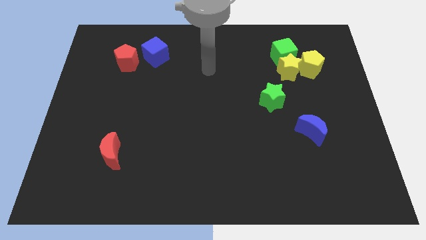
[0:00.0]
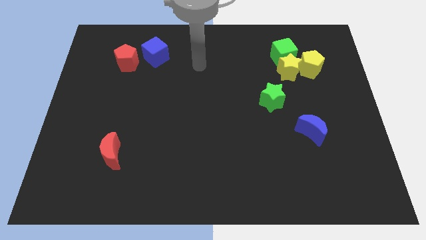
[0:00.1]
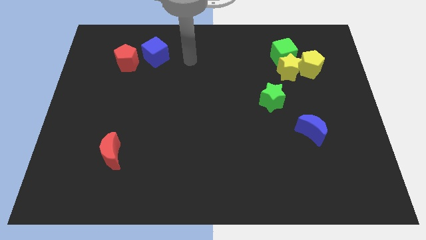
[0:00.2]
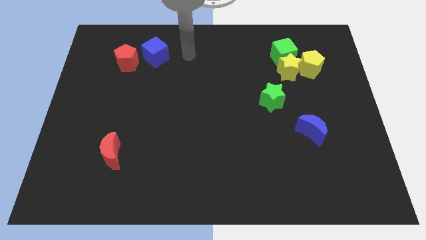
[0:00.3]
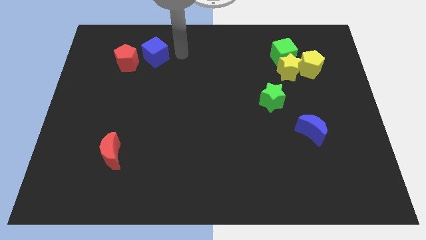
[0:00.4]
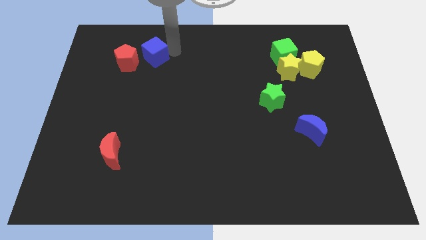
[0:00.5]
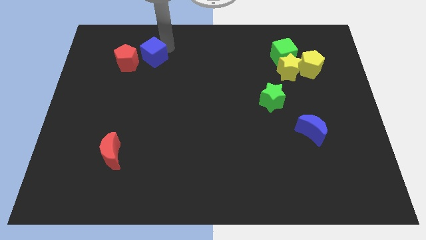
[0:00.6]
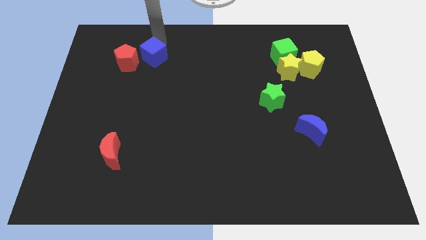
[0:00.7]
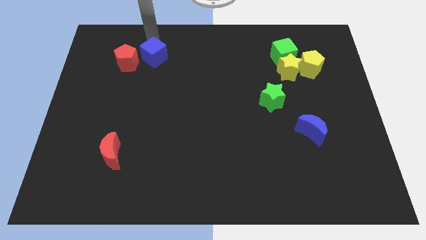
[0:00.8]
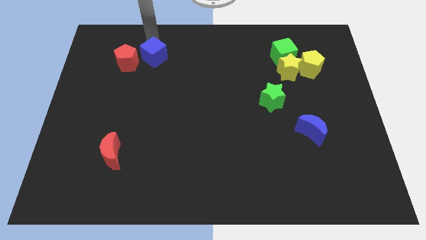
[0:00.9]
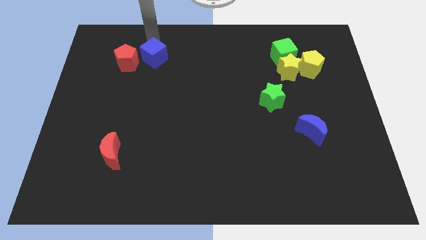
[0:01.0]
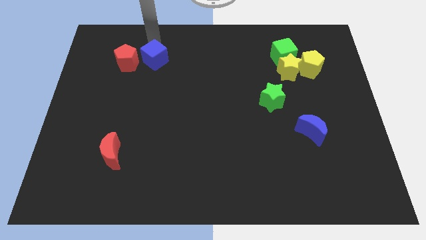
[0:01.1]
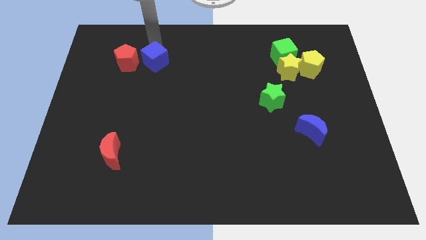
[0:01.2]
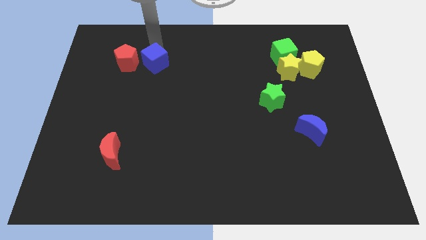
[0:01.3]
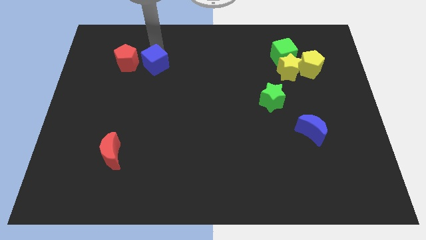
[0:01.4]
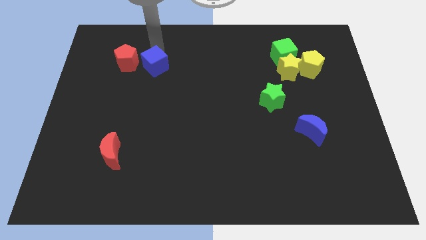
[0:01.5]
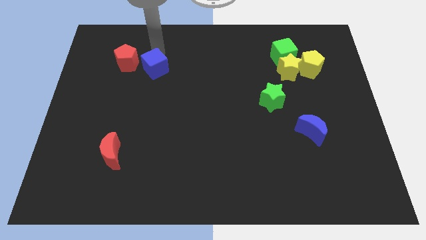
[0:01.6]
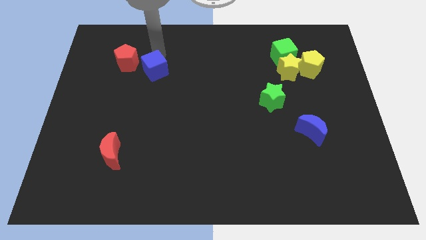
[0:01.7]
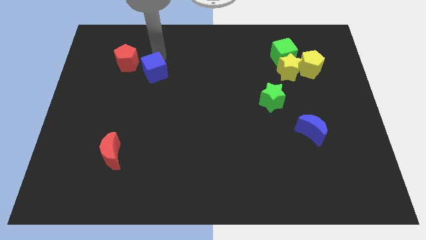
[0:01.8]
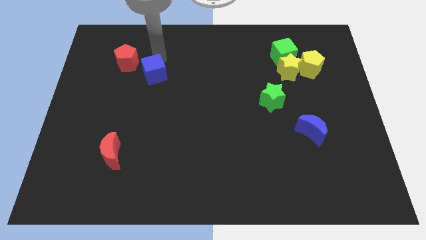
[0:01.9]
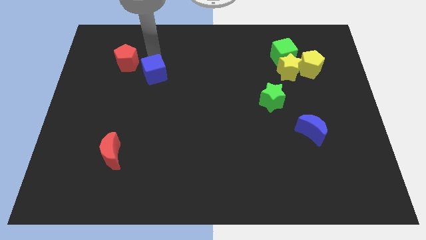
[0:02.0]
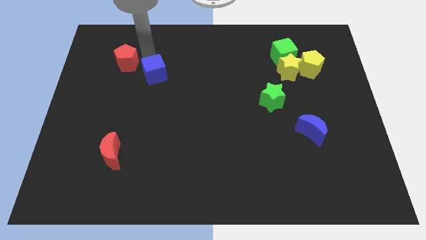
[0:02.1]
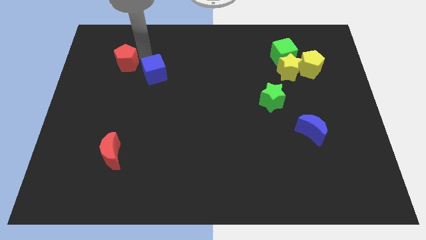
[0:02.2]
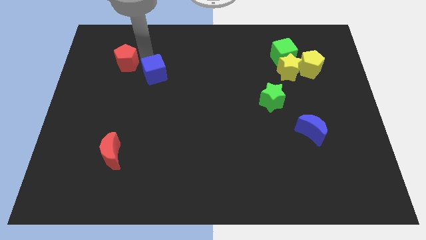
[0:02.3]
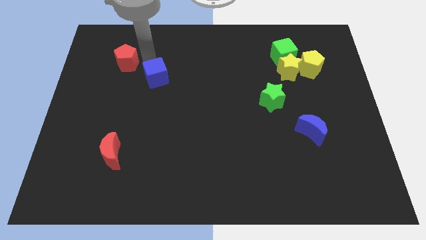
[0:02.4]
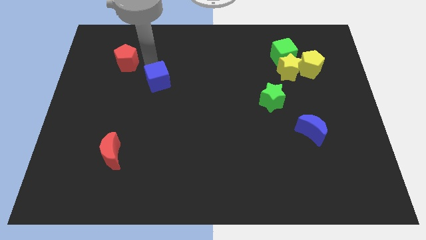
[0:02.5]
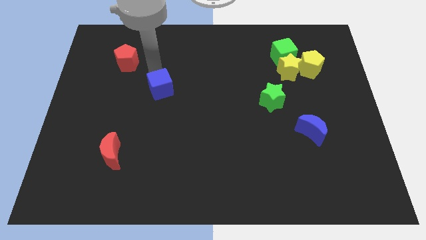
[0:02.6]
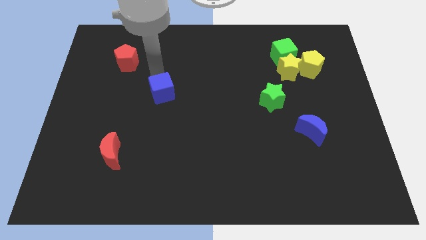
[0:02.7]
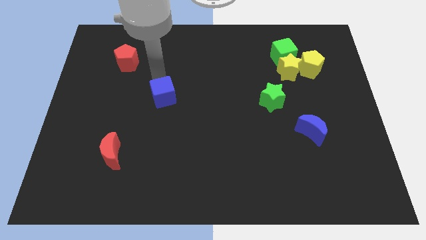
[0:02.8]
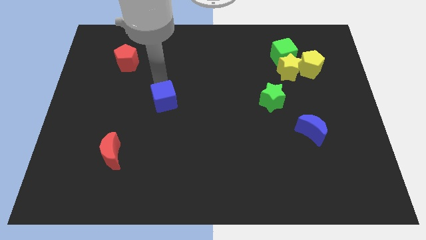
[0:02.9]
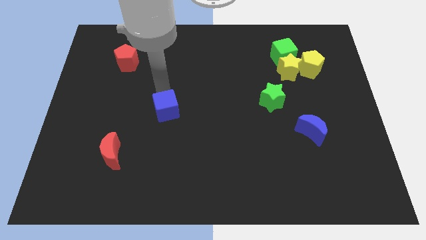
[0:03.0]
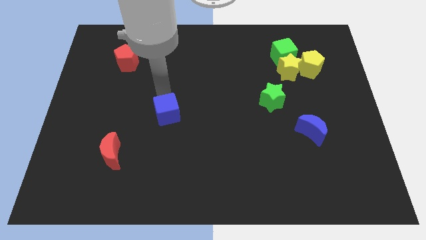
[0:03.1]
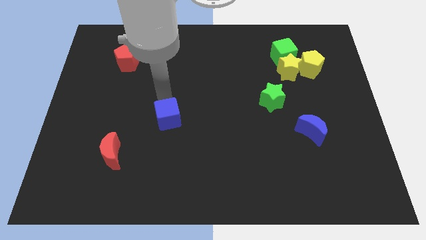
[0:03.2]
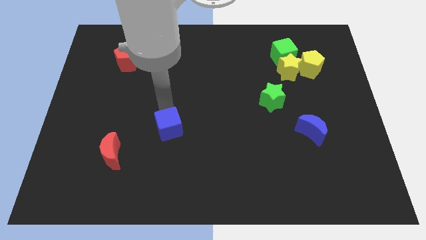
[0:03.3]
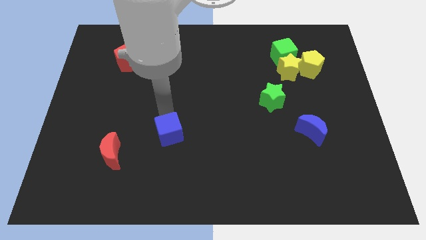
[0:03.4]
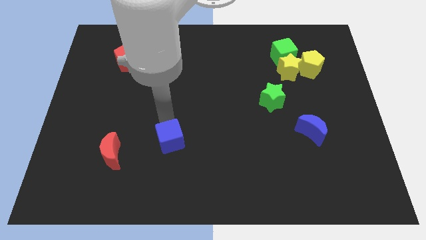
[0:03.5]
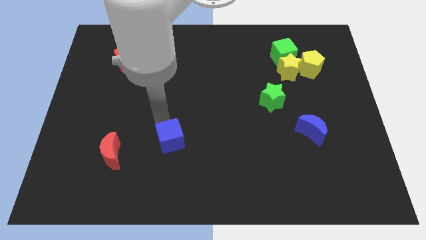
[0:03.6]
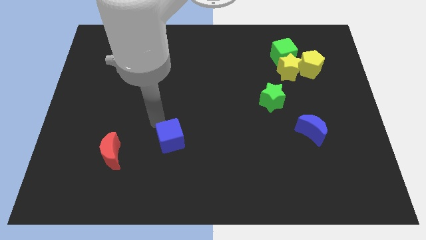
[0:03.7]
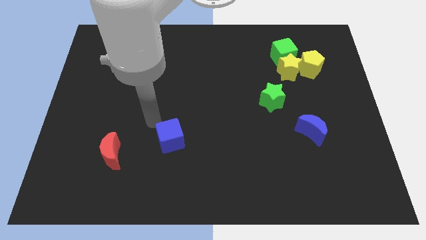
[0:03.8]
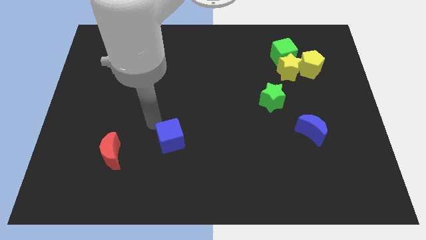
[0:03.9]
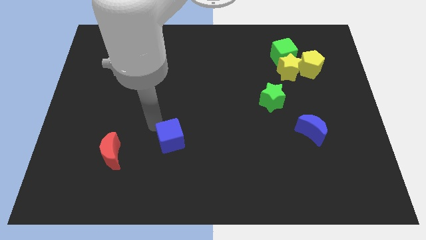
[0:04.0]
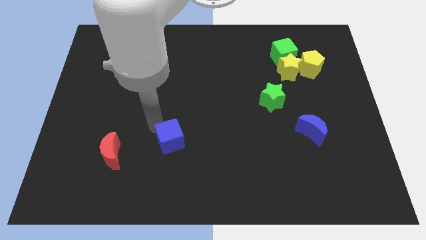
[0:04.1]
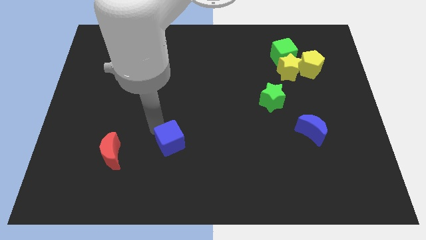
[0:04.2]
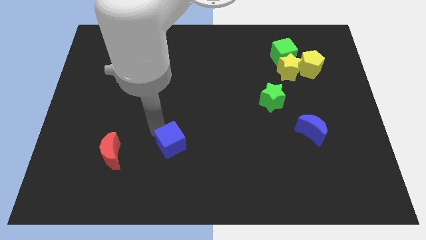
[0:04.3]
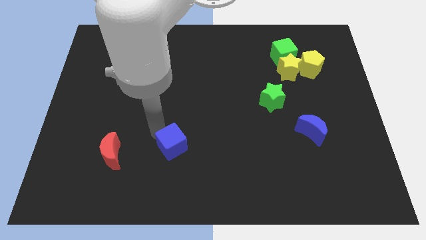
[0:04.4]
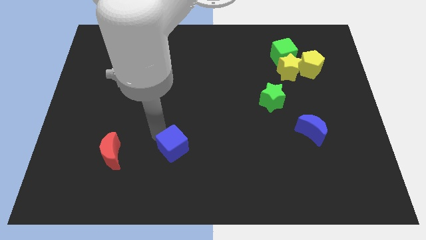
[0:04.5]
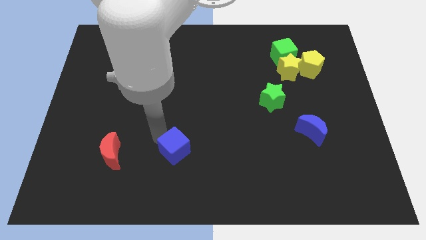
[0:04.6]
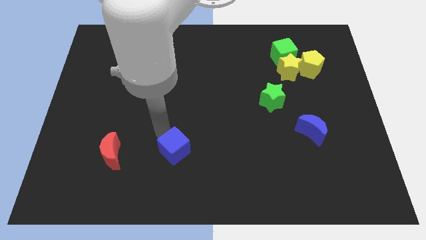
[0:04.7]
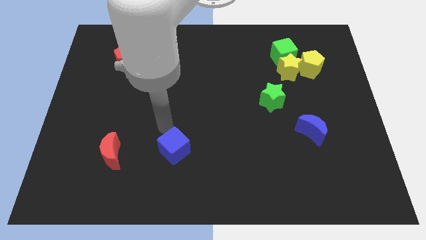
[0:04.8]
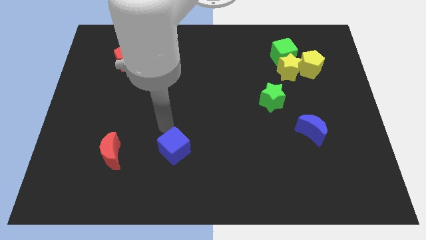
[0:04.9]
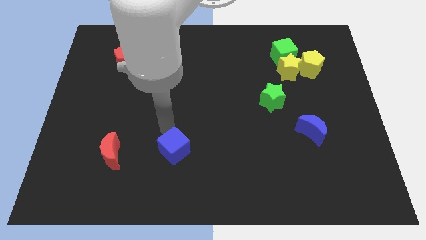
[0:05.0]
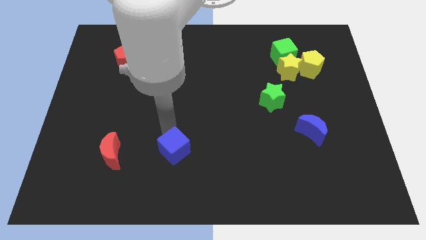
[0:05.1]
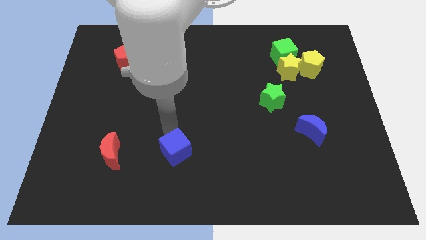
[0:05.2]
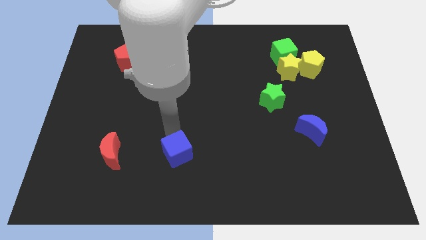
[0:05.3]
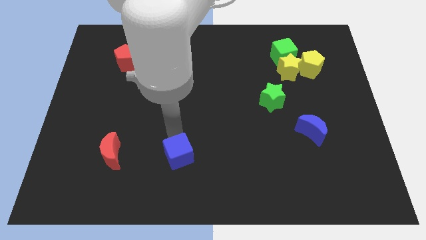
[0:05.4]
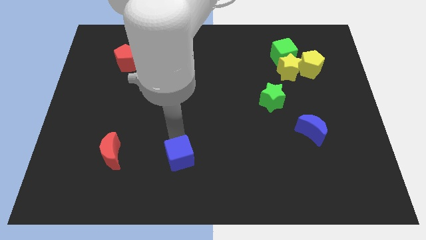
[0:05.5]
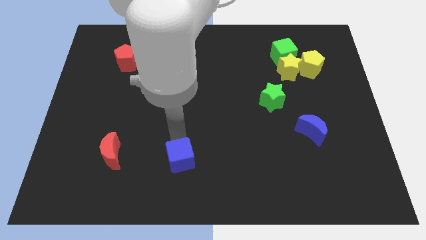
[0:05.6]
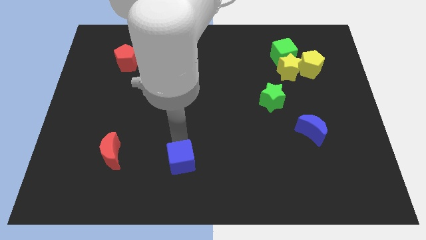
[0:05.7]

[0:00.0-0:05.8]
slide the blue cube to the bottom

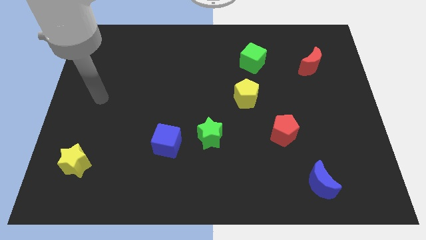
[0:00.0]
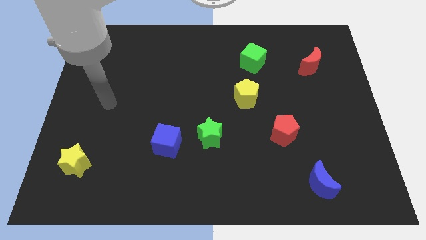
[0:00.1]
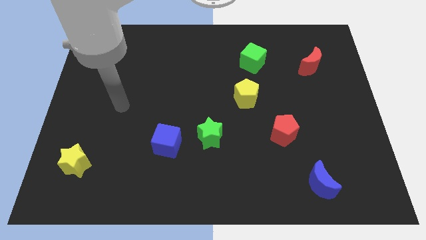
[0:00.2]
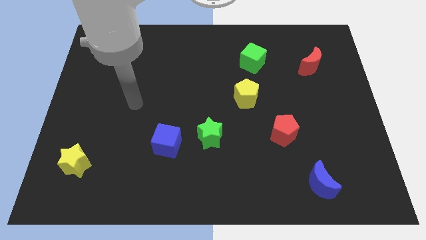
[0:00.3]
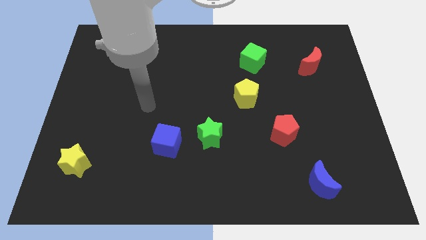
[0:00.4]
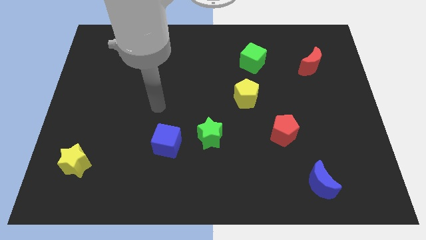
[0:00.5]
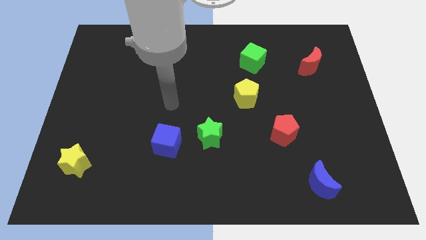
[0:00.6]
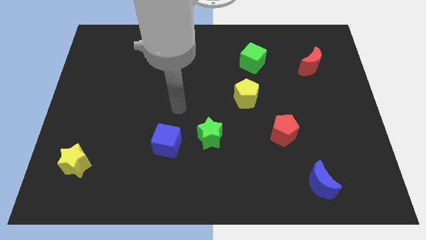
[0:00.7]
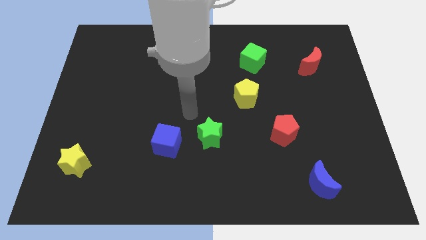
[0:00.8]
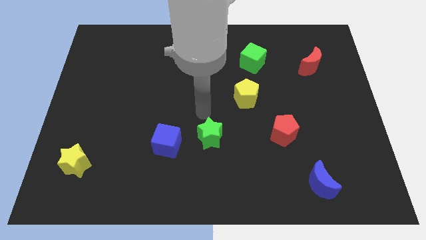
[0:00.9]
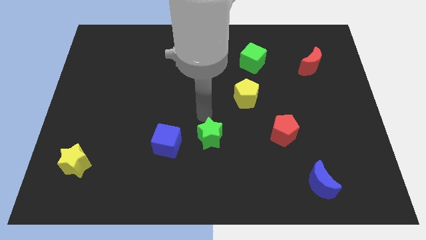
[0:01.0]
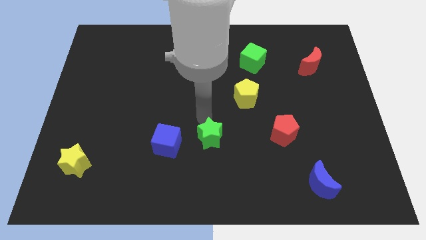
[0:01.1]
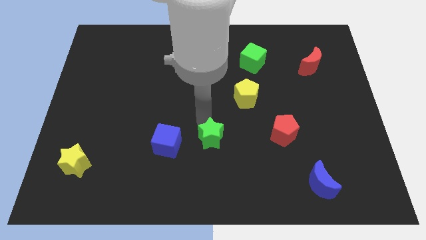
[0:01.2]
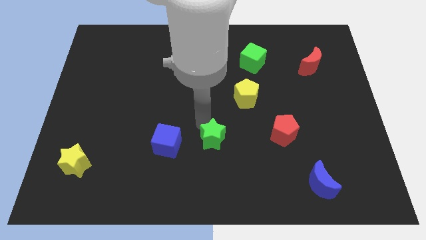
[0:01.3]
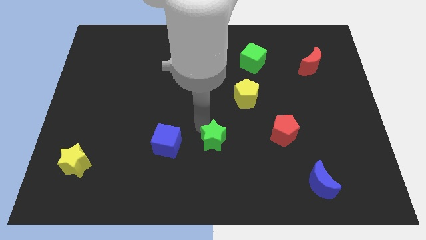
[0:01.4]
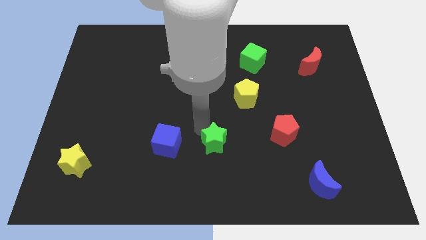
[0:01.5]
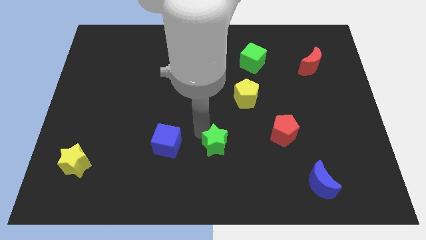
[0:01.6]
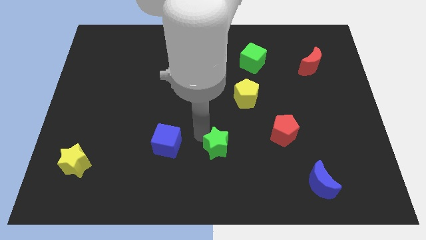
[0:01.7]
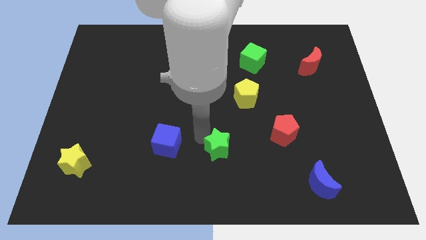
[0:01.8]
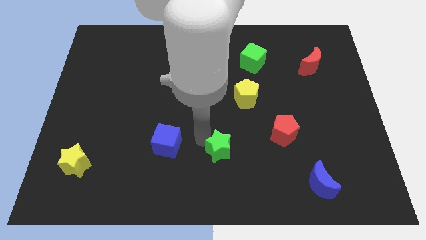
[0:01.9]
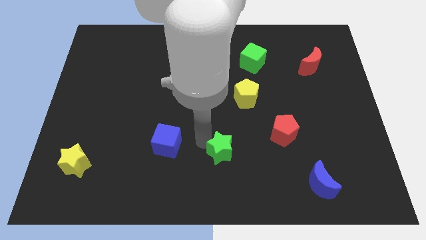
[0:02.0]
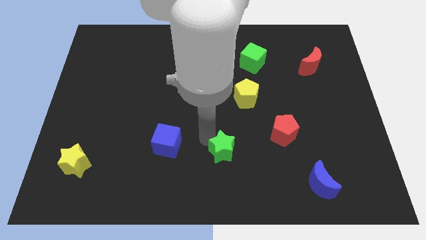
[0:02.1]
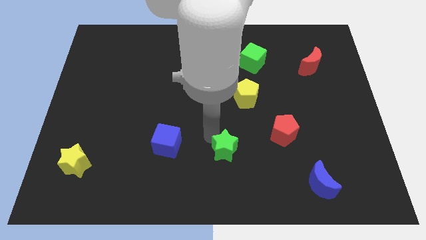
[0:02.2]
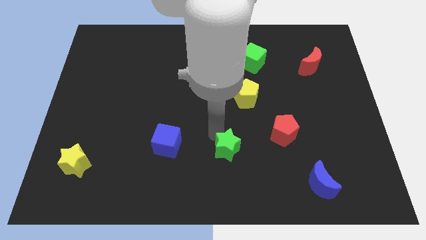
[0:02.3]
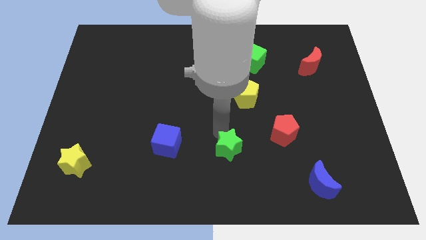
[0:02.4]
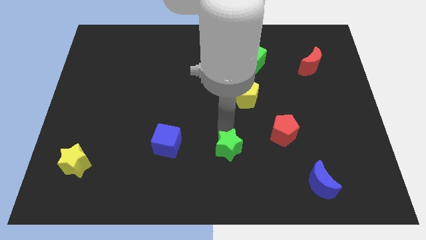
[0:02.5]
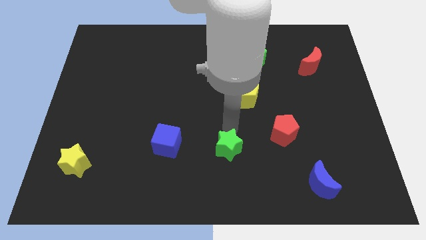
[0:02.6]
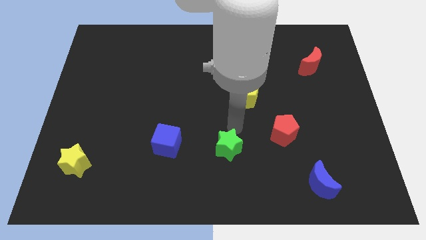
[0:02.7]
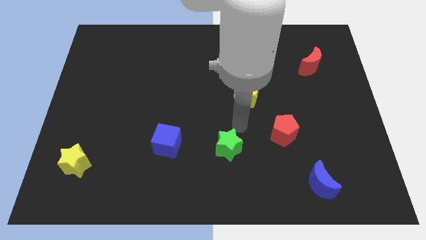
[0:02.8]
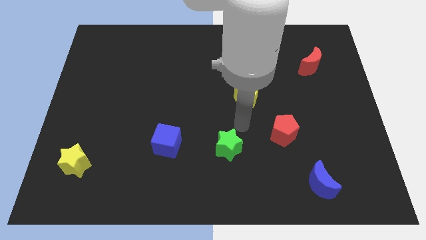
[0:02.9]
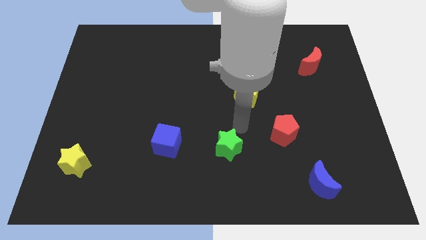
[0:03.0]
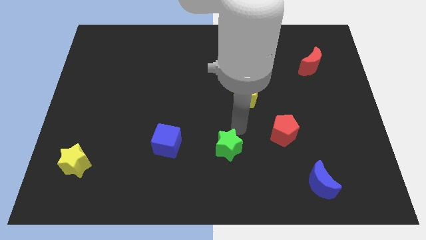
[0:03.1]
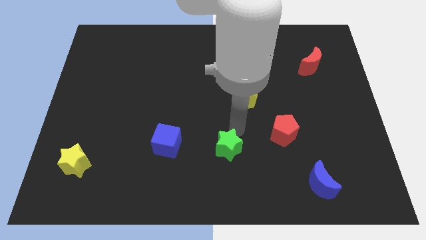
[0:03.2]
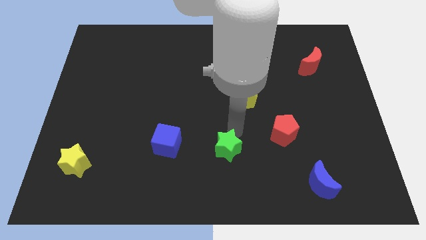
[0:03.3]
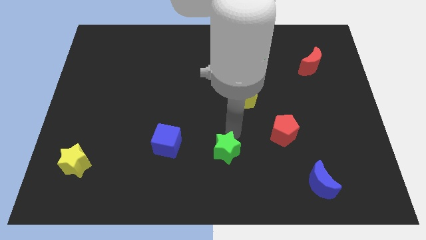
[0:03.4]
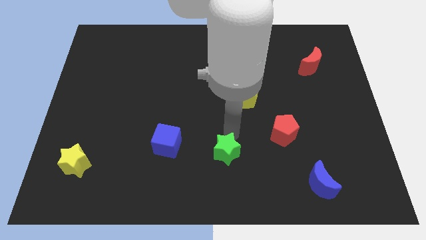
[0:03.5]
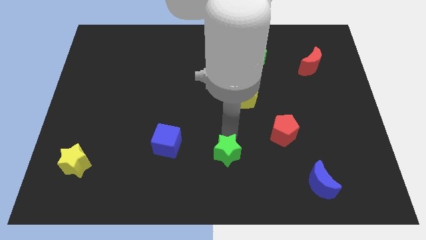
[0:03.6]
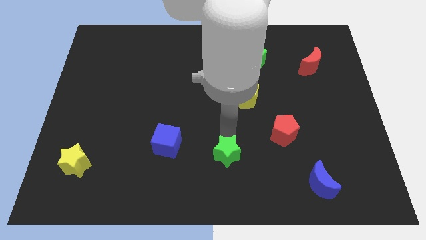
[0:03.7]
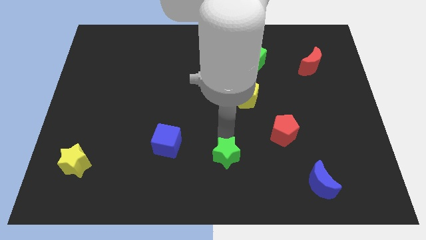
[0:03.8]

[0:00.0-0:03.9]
move the green star to the bottom side
